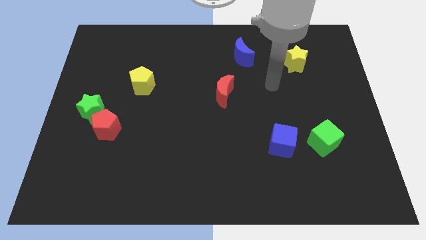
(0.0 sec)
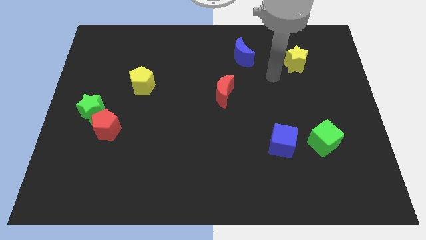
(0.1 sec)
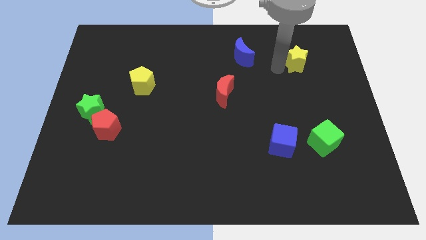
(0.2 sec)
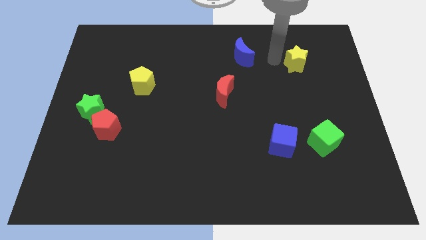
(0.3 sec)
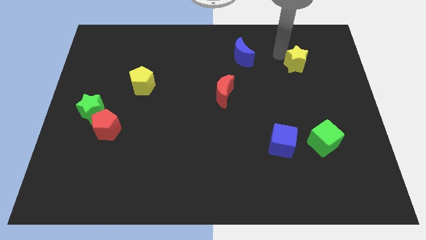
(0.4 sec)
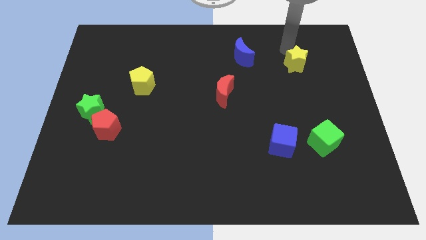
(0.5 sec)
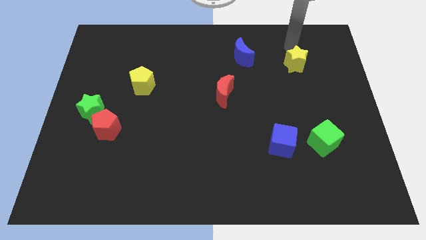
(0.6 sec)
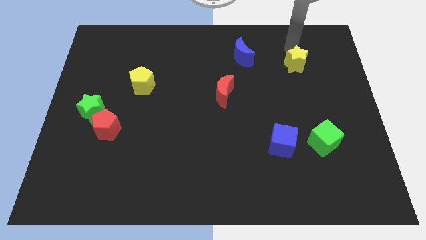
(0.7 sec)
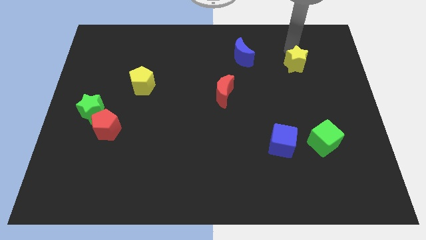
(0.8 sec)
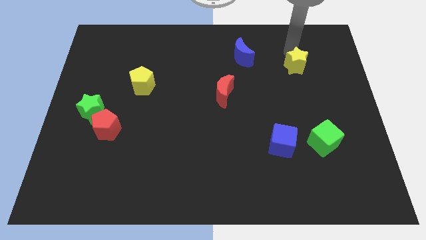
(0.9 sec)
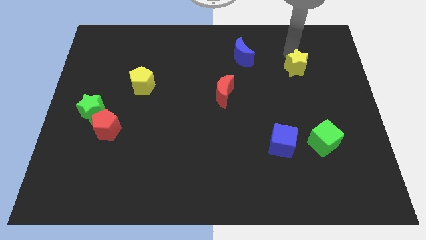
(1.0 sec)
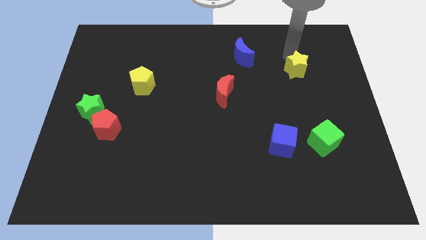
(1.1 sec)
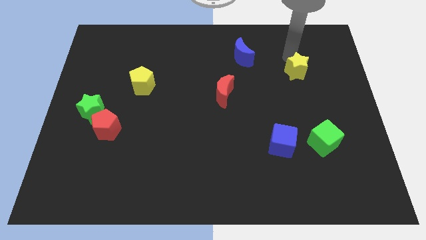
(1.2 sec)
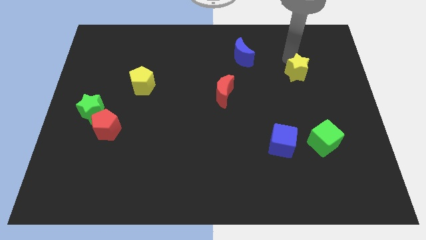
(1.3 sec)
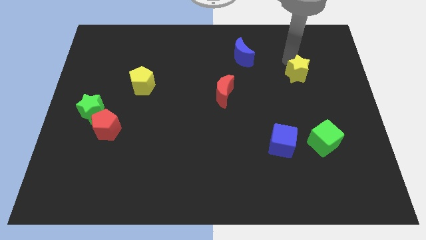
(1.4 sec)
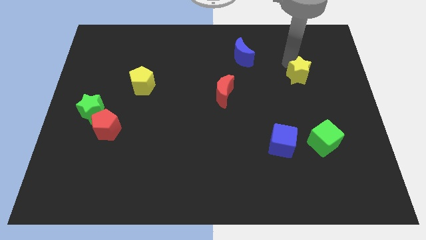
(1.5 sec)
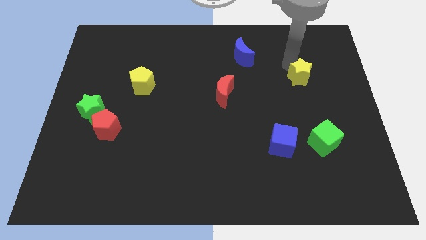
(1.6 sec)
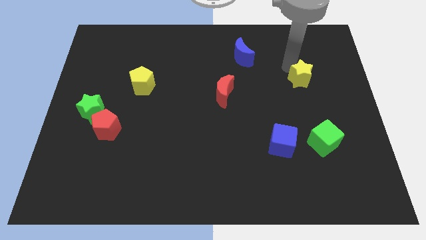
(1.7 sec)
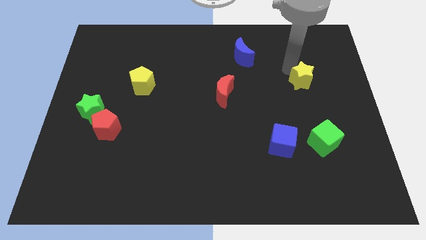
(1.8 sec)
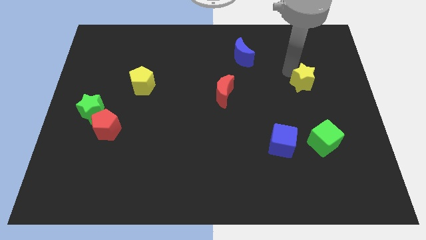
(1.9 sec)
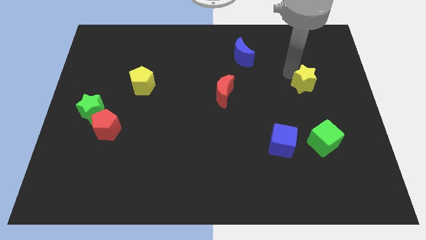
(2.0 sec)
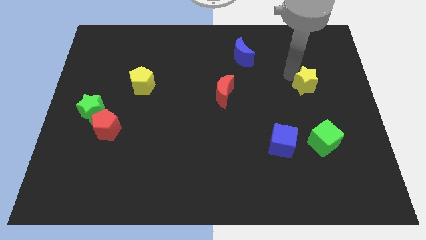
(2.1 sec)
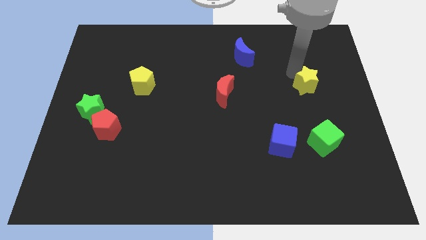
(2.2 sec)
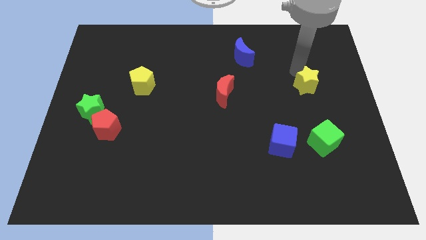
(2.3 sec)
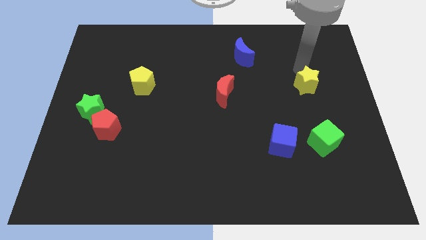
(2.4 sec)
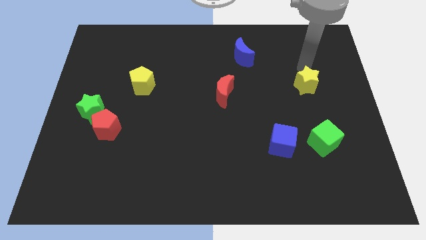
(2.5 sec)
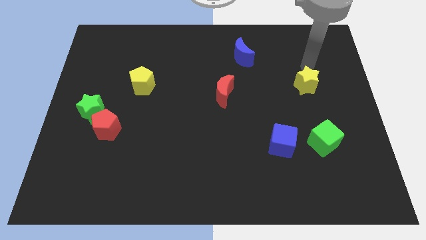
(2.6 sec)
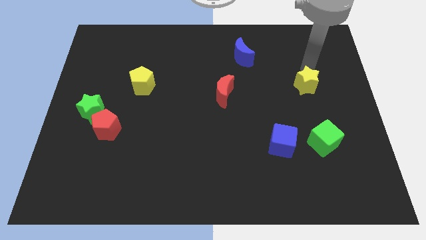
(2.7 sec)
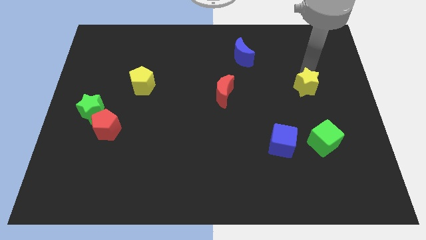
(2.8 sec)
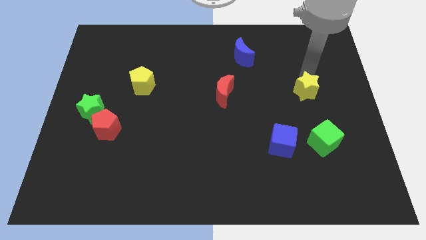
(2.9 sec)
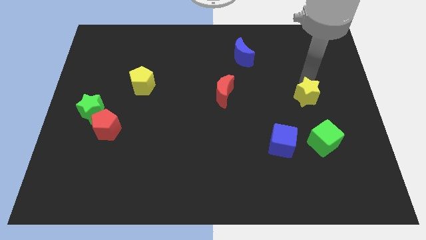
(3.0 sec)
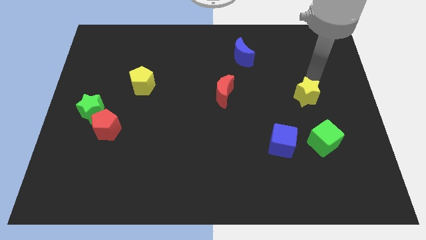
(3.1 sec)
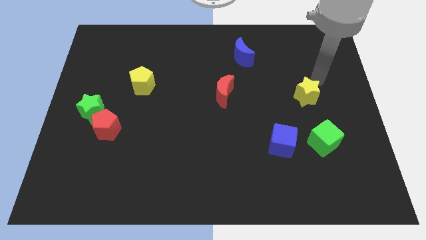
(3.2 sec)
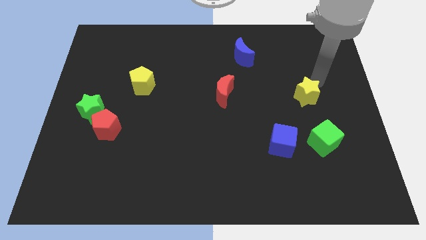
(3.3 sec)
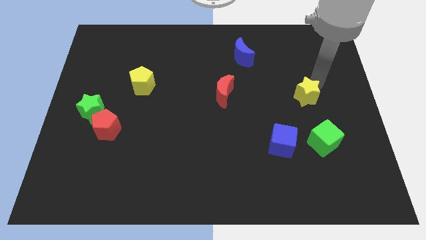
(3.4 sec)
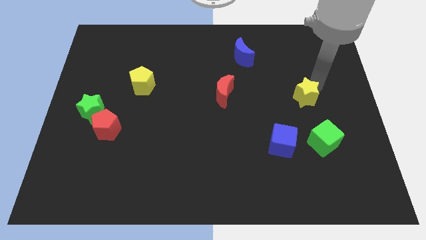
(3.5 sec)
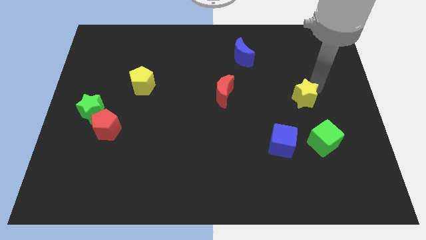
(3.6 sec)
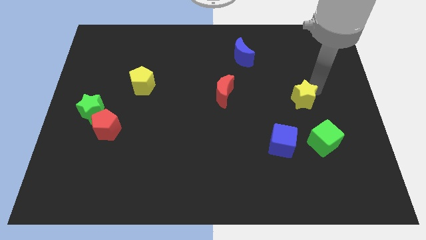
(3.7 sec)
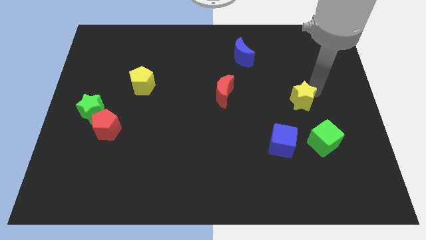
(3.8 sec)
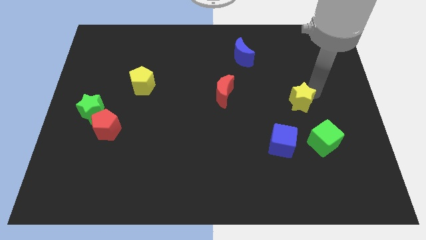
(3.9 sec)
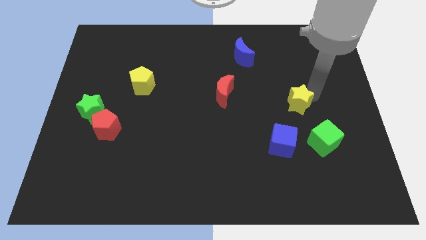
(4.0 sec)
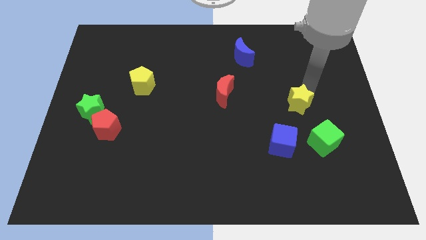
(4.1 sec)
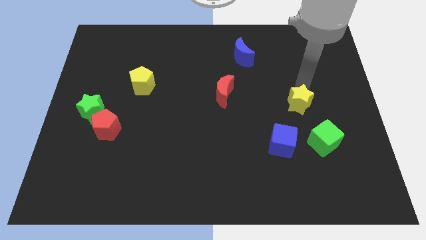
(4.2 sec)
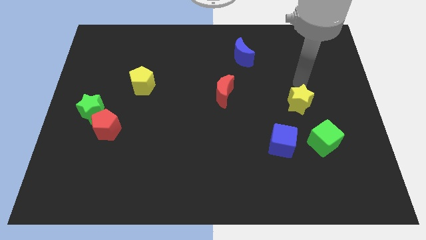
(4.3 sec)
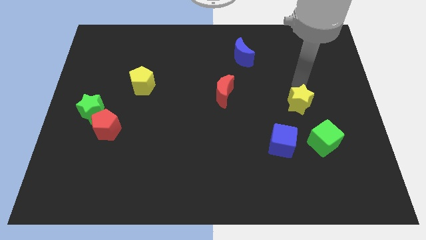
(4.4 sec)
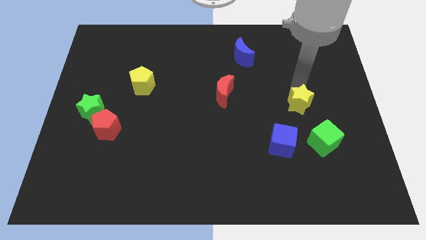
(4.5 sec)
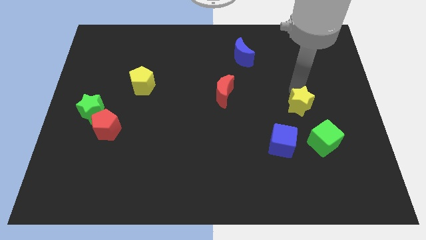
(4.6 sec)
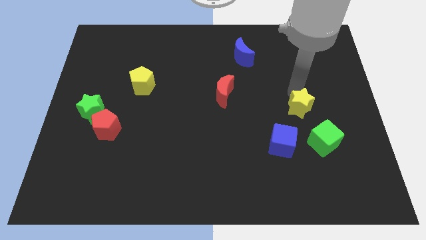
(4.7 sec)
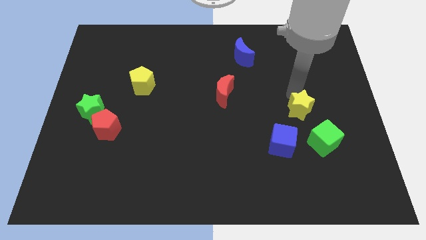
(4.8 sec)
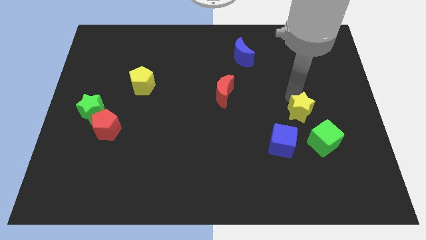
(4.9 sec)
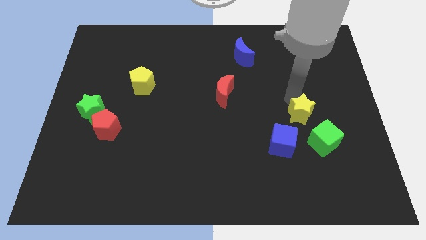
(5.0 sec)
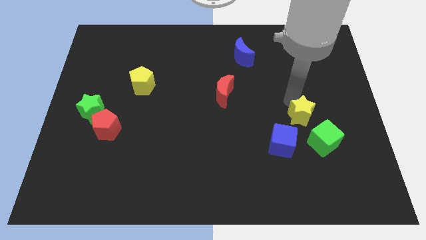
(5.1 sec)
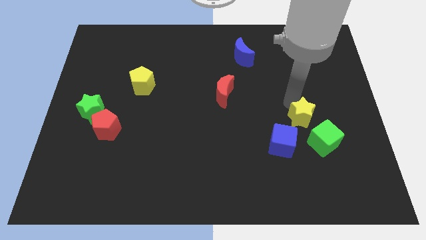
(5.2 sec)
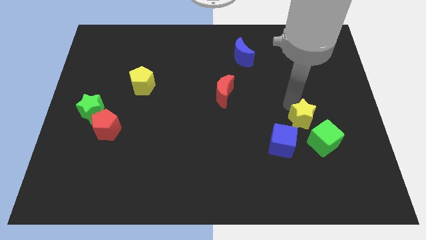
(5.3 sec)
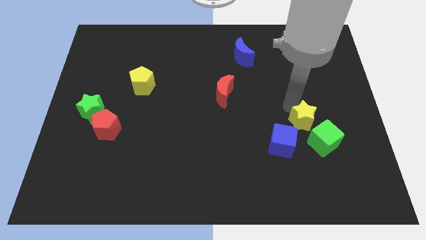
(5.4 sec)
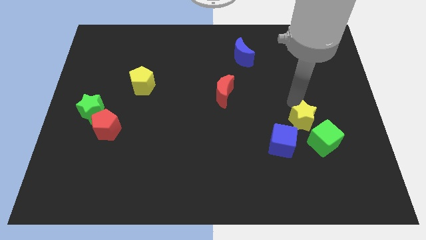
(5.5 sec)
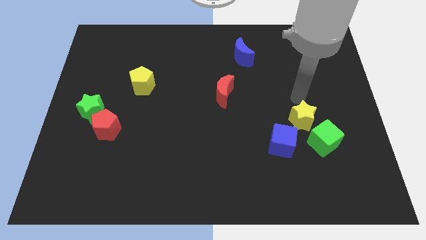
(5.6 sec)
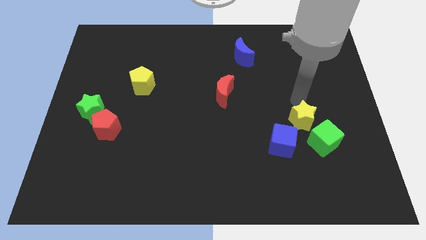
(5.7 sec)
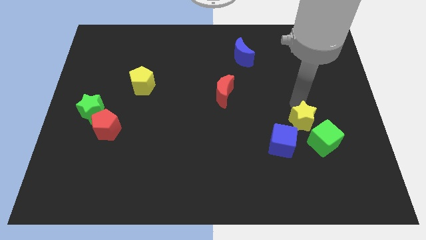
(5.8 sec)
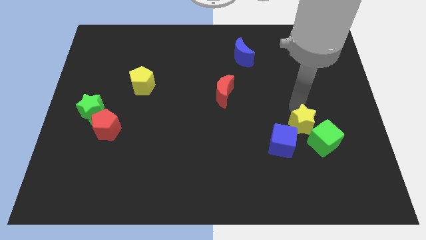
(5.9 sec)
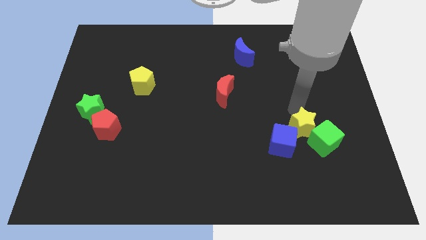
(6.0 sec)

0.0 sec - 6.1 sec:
push the yellow star down

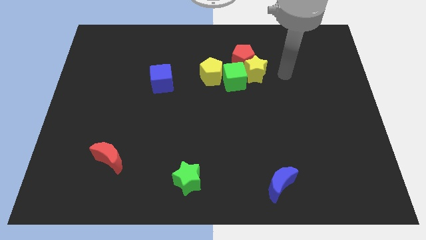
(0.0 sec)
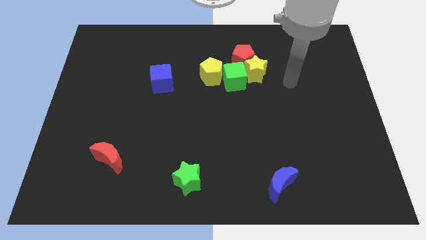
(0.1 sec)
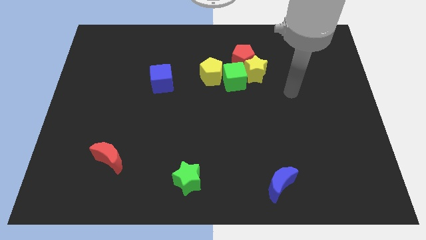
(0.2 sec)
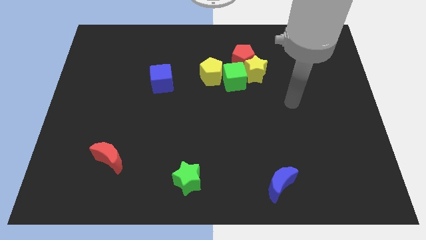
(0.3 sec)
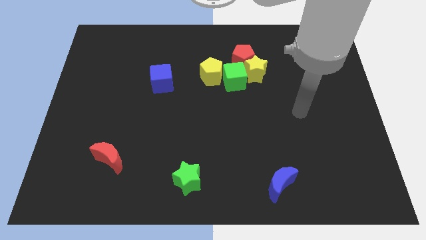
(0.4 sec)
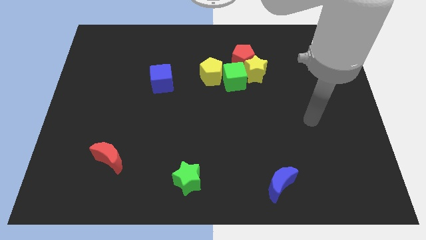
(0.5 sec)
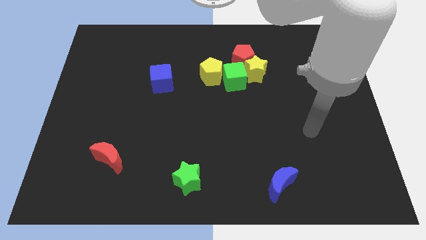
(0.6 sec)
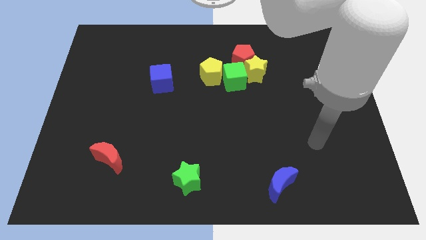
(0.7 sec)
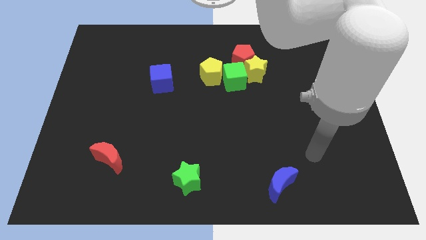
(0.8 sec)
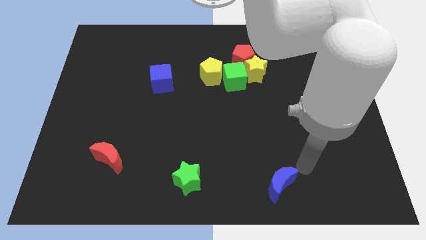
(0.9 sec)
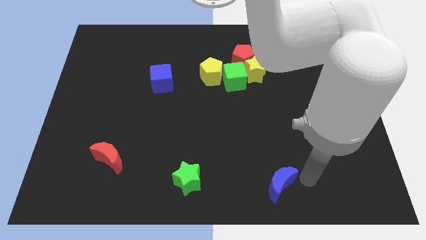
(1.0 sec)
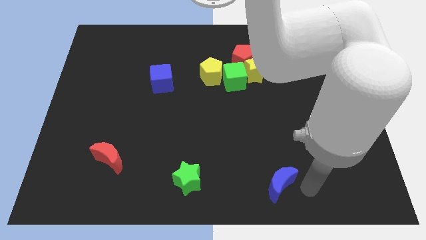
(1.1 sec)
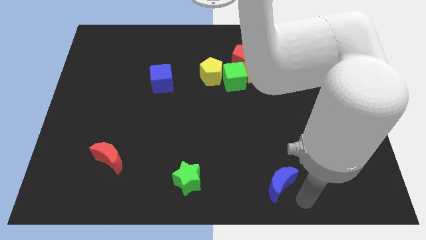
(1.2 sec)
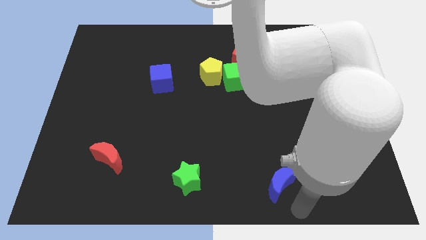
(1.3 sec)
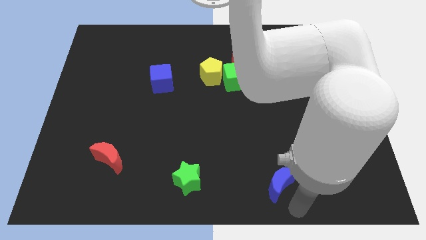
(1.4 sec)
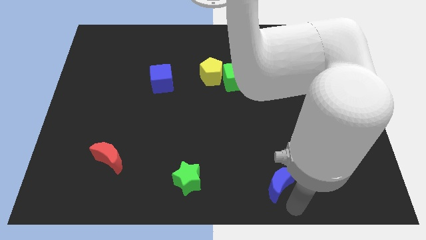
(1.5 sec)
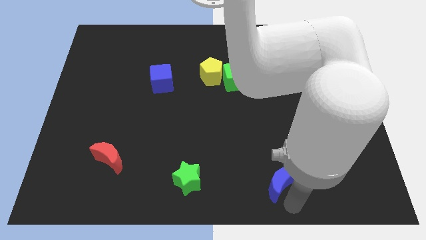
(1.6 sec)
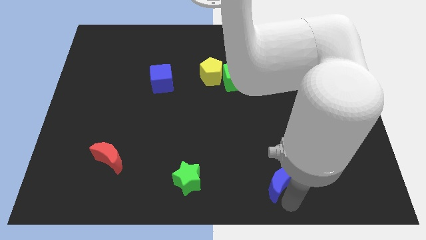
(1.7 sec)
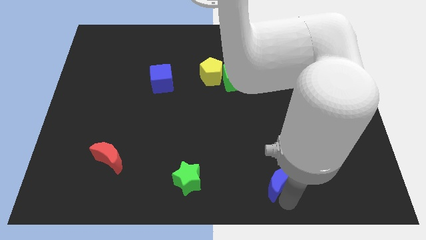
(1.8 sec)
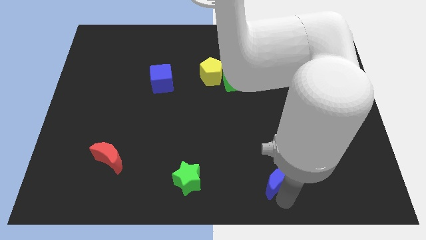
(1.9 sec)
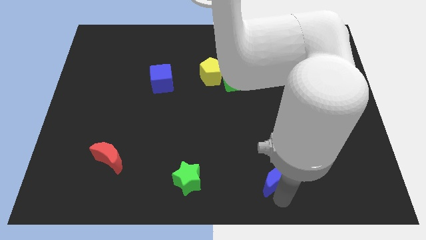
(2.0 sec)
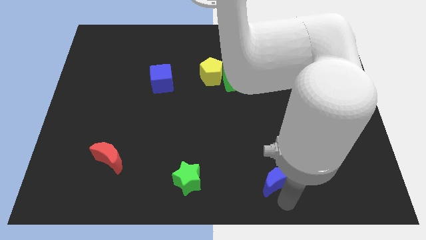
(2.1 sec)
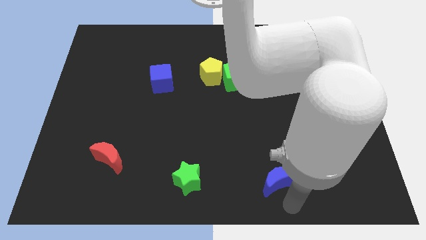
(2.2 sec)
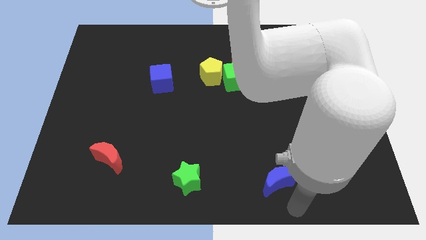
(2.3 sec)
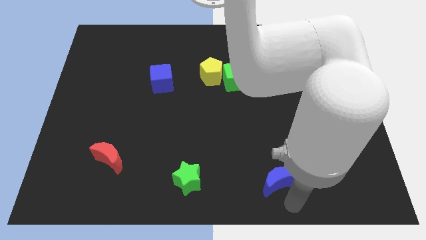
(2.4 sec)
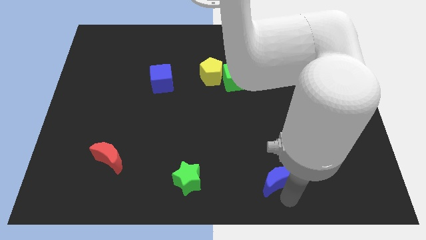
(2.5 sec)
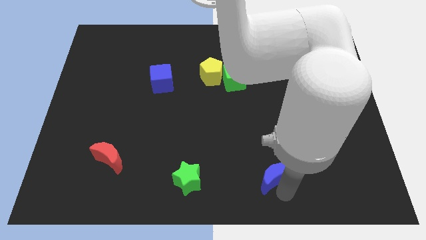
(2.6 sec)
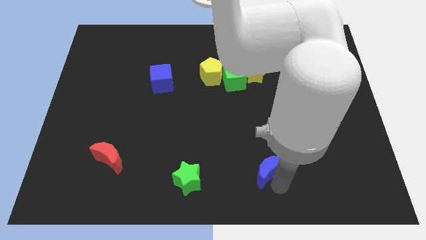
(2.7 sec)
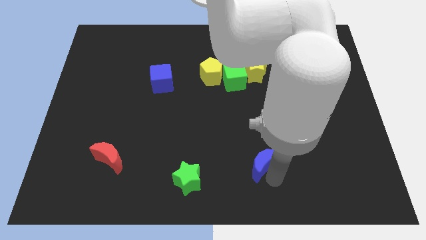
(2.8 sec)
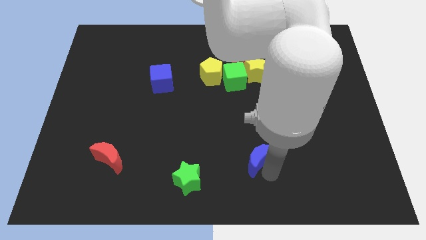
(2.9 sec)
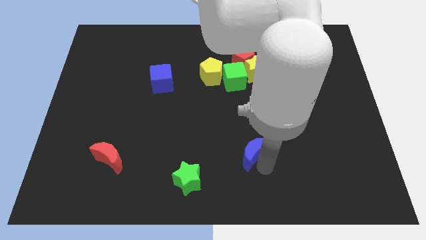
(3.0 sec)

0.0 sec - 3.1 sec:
slide the blue moon diagonally up and left a little
